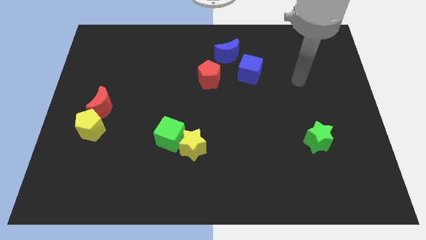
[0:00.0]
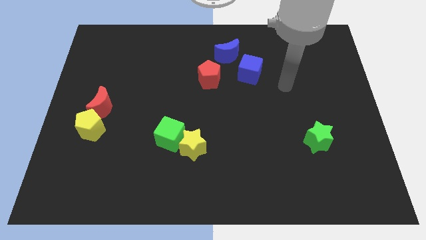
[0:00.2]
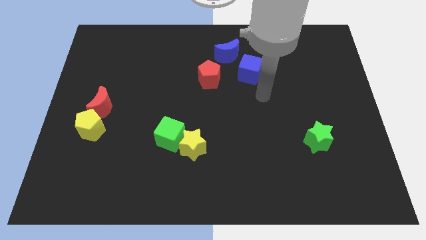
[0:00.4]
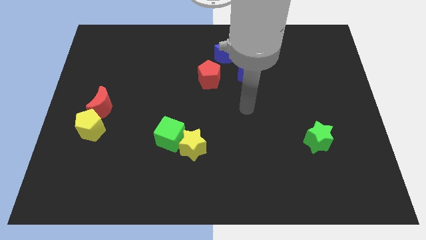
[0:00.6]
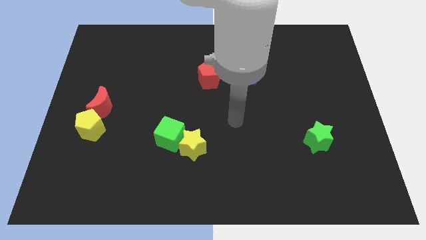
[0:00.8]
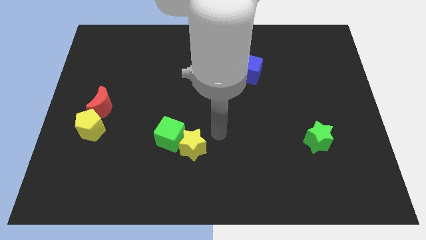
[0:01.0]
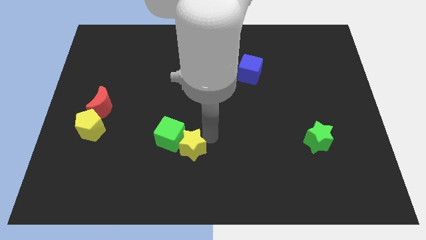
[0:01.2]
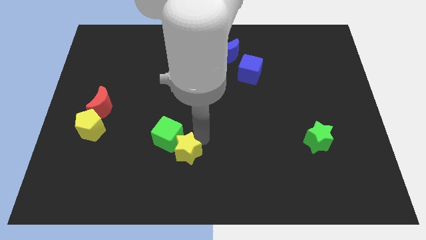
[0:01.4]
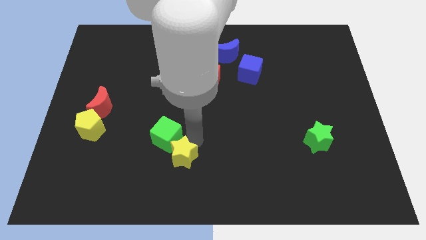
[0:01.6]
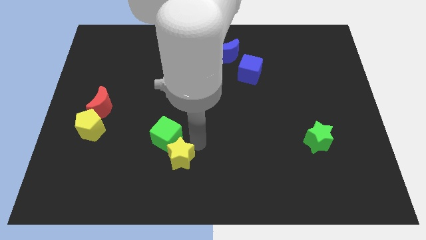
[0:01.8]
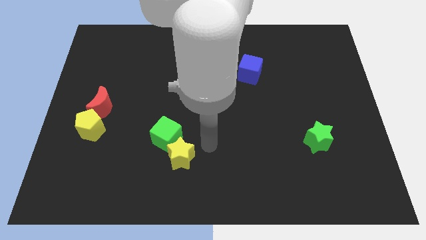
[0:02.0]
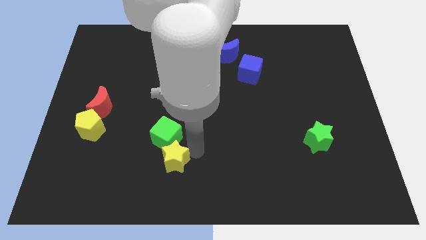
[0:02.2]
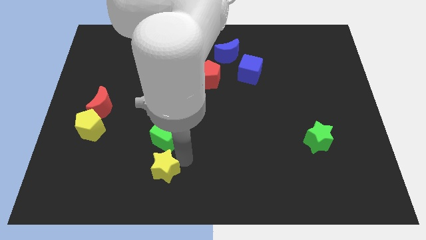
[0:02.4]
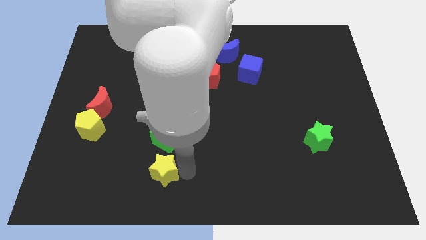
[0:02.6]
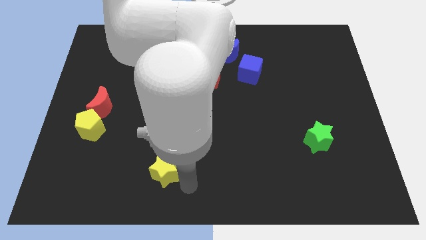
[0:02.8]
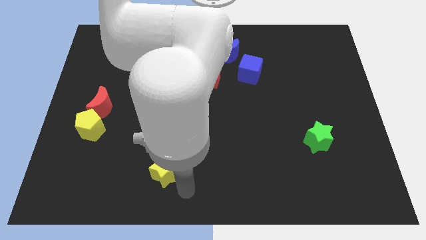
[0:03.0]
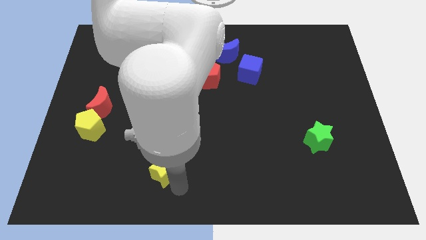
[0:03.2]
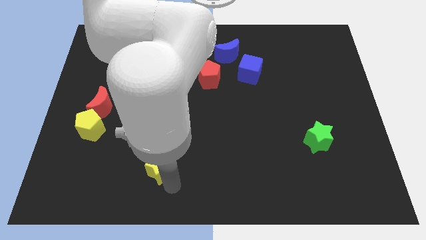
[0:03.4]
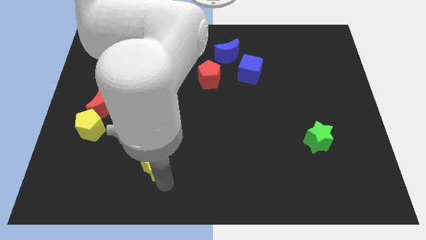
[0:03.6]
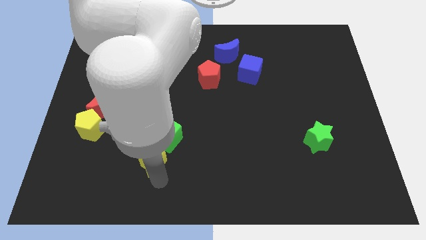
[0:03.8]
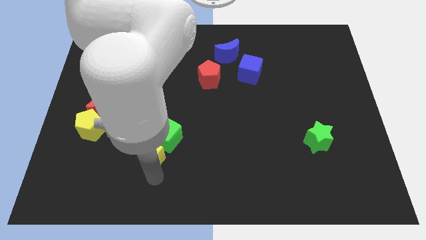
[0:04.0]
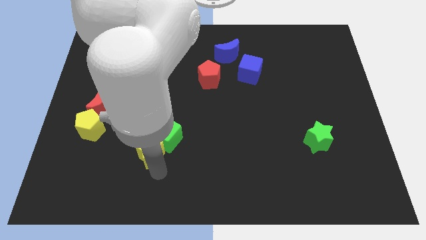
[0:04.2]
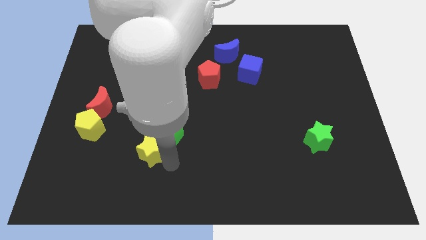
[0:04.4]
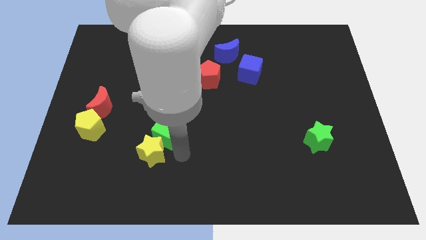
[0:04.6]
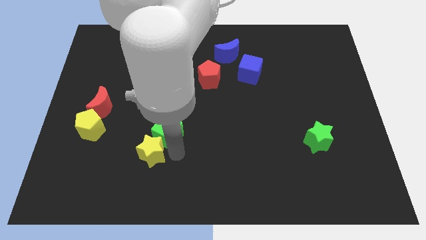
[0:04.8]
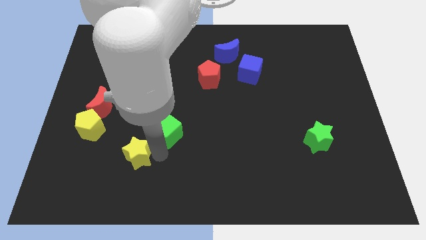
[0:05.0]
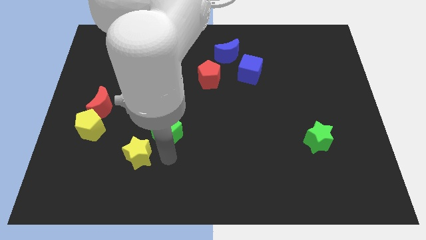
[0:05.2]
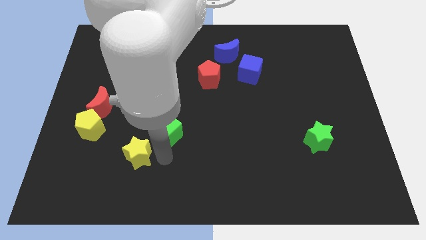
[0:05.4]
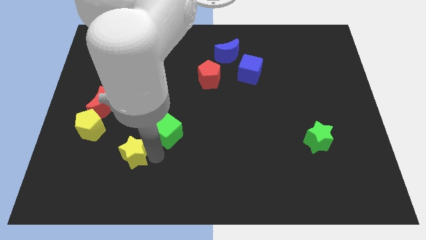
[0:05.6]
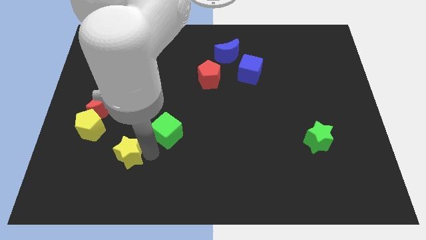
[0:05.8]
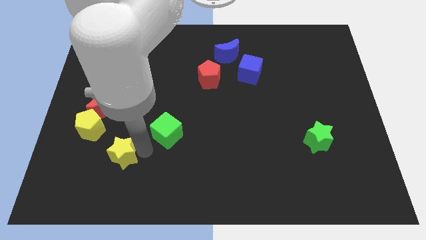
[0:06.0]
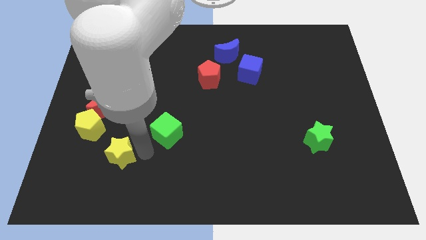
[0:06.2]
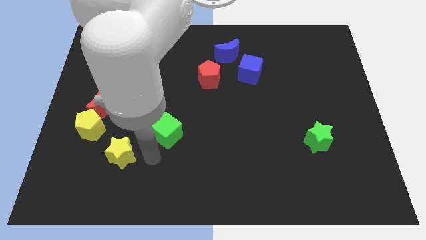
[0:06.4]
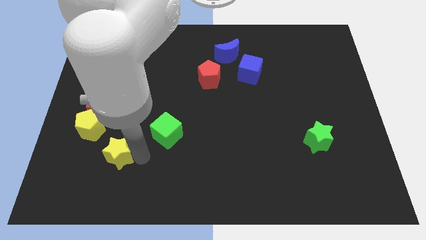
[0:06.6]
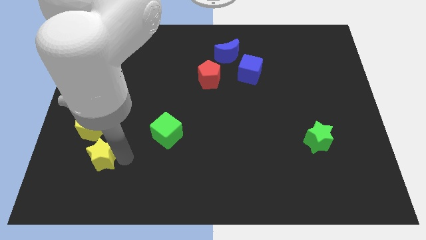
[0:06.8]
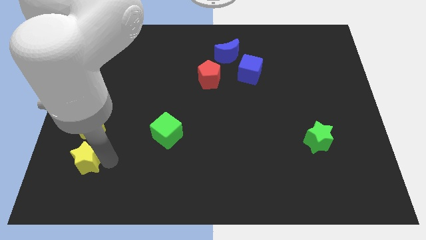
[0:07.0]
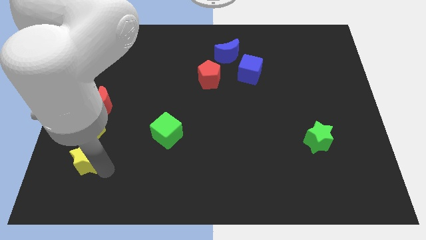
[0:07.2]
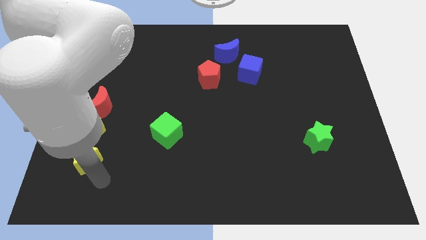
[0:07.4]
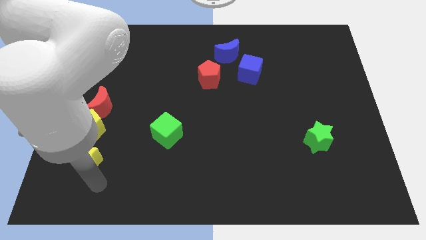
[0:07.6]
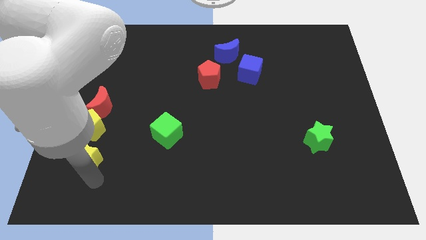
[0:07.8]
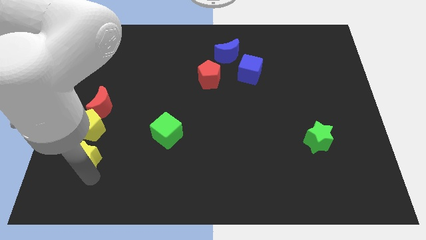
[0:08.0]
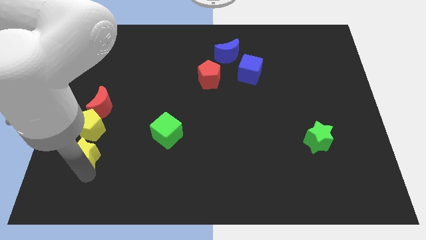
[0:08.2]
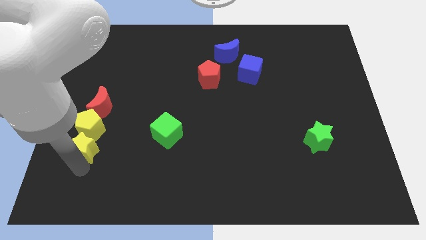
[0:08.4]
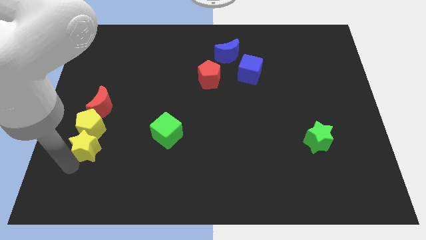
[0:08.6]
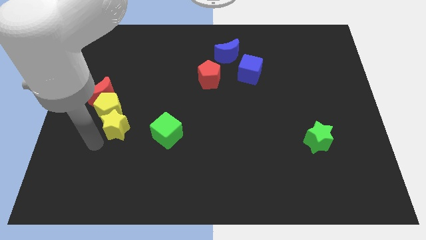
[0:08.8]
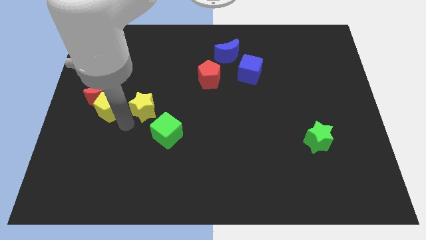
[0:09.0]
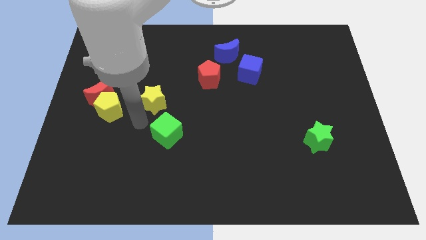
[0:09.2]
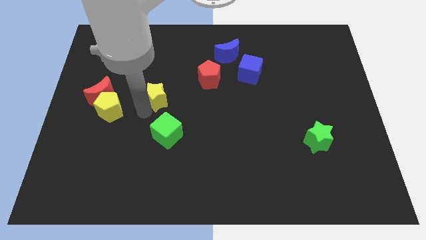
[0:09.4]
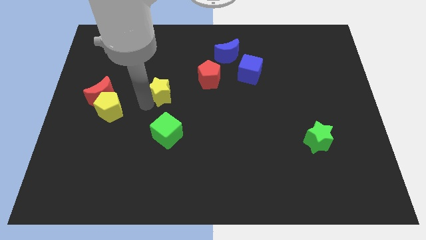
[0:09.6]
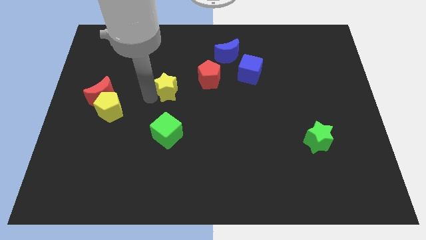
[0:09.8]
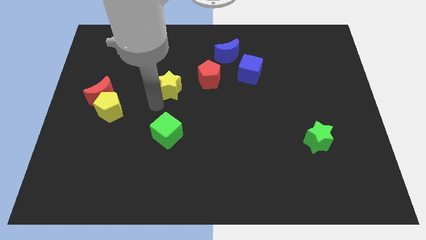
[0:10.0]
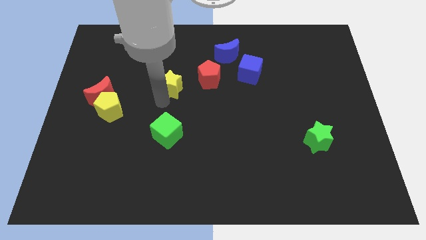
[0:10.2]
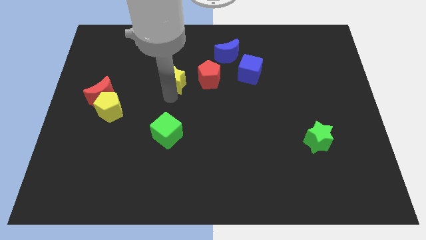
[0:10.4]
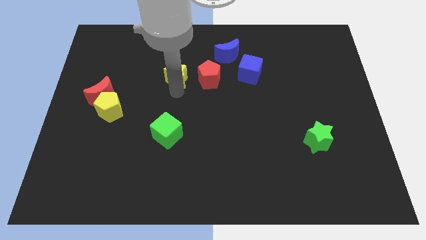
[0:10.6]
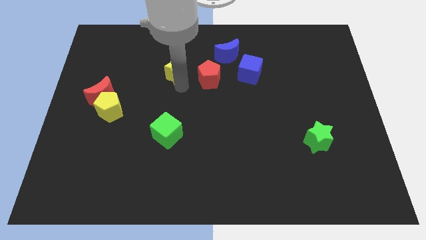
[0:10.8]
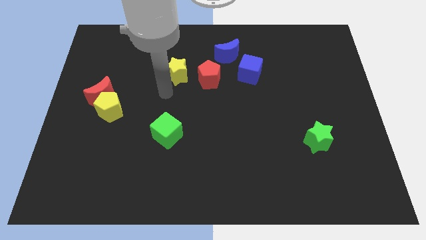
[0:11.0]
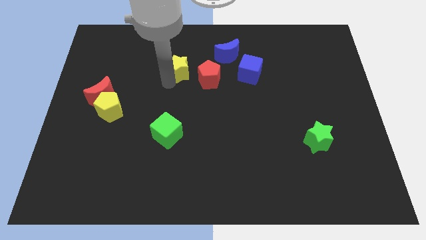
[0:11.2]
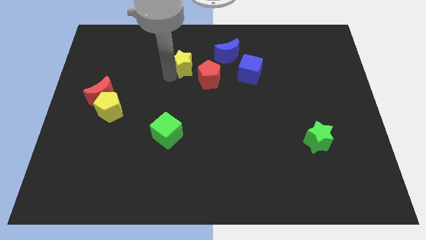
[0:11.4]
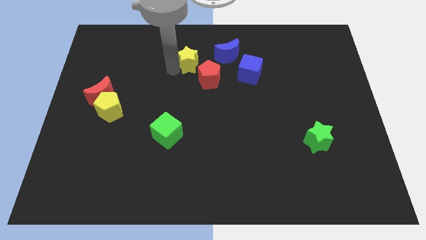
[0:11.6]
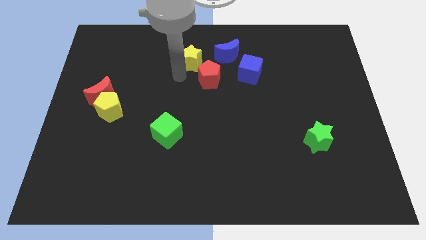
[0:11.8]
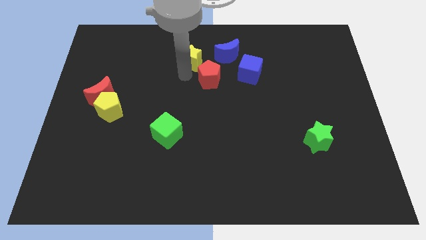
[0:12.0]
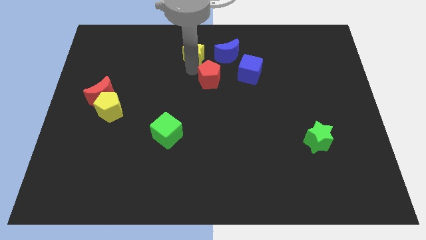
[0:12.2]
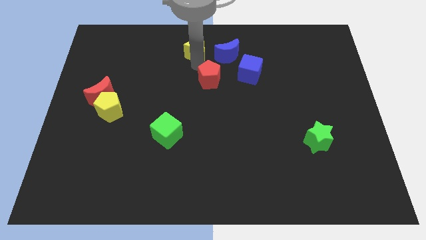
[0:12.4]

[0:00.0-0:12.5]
put the yellow star to the top side
